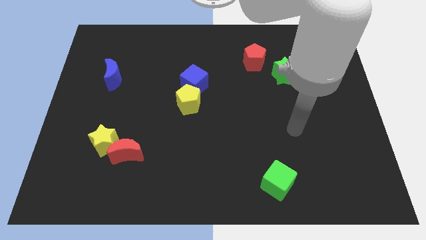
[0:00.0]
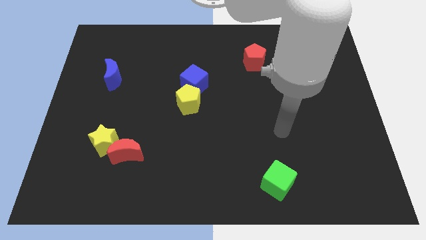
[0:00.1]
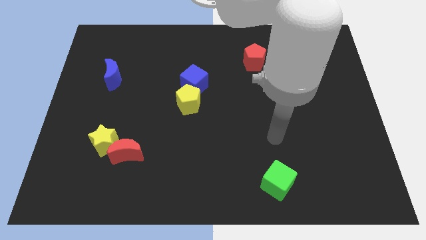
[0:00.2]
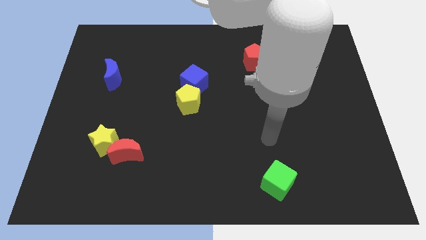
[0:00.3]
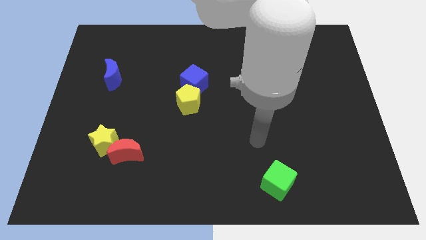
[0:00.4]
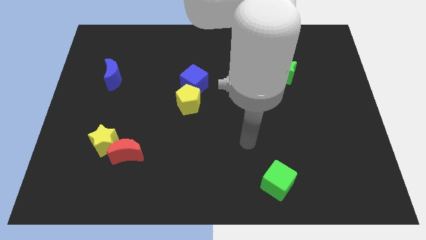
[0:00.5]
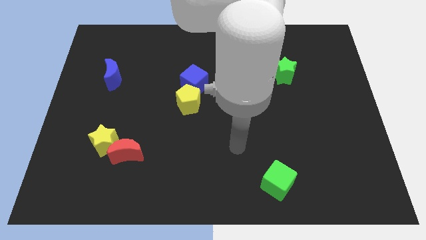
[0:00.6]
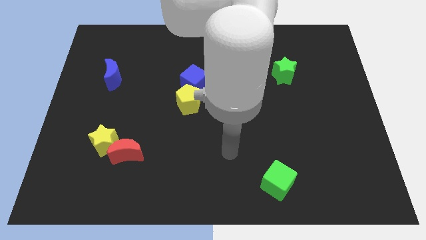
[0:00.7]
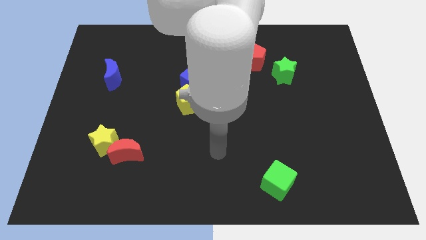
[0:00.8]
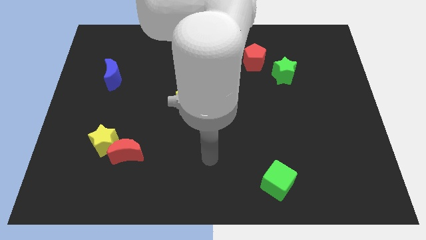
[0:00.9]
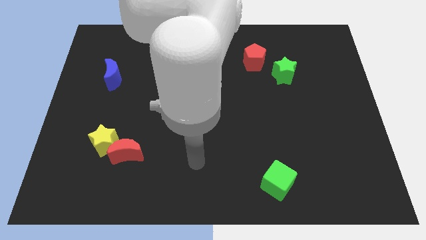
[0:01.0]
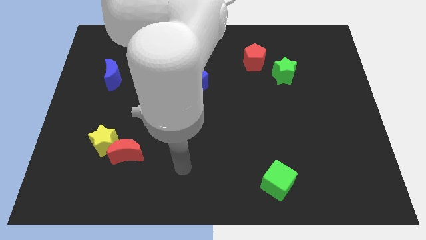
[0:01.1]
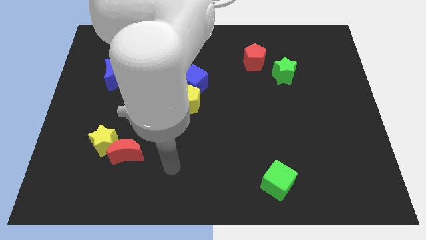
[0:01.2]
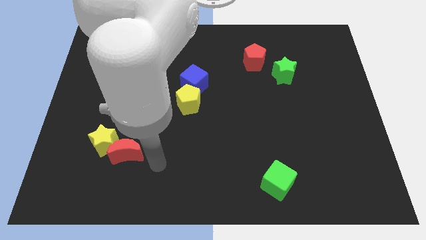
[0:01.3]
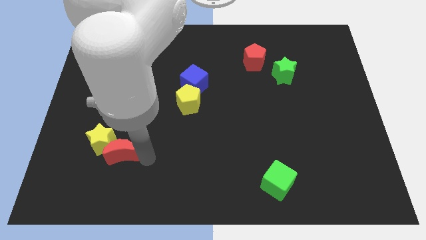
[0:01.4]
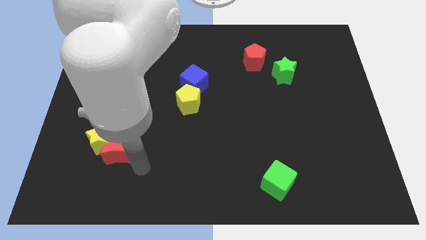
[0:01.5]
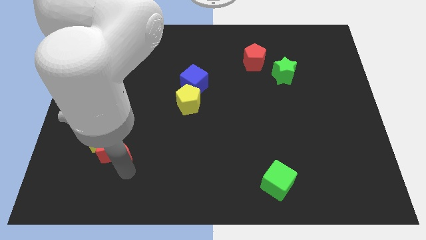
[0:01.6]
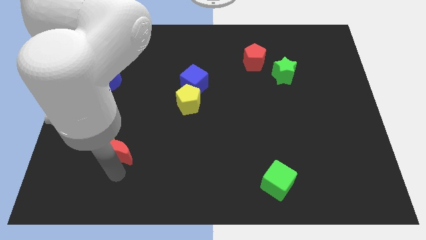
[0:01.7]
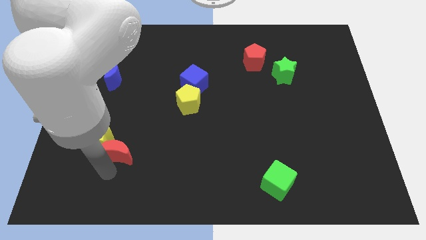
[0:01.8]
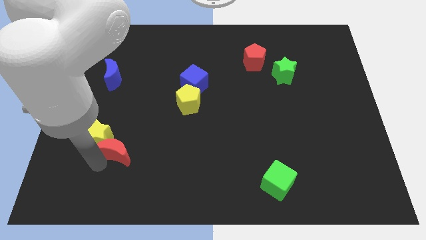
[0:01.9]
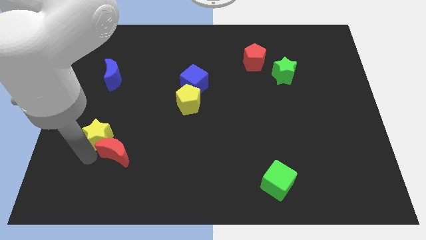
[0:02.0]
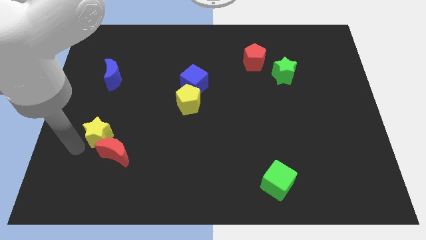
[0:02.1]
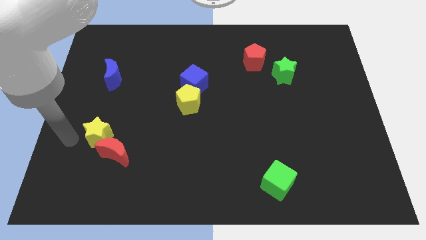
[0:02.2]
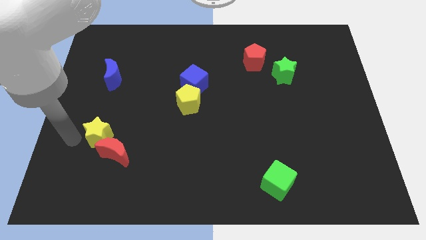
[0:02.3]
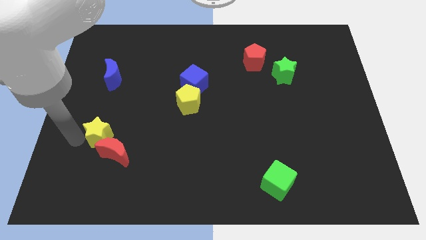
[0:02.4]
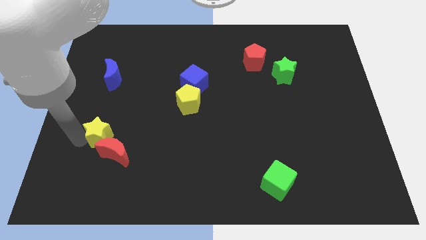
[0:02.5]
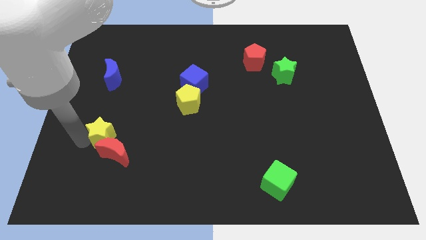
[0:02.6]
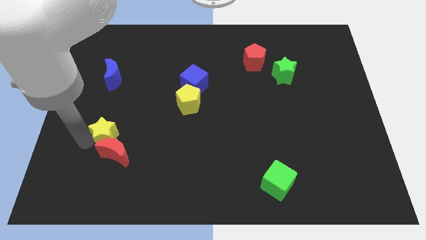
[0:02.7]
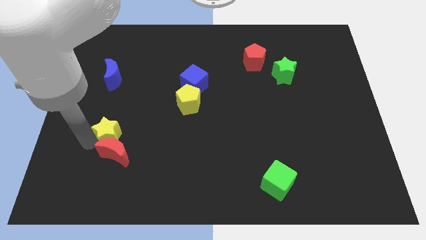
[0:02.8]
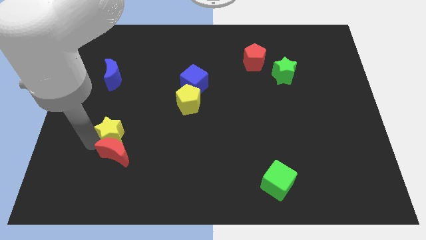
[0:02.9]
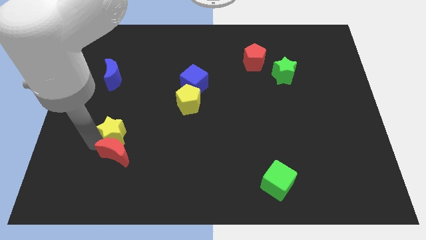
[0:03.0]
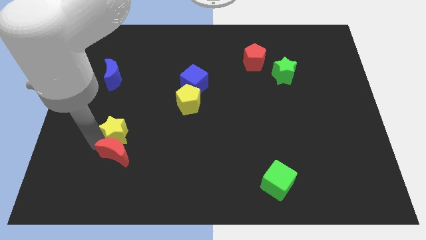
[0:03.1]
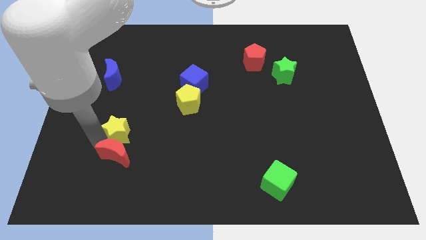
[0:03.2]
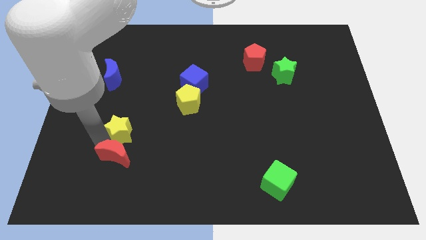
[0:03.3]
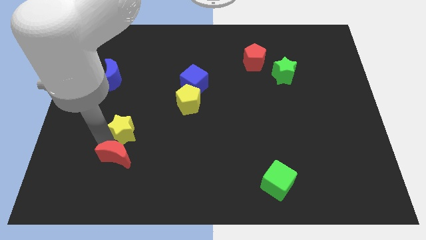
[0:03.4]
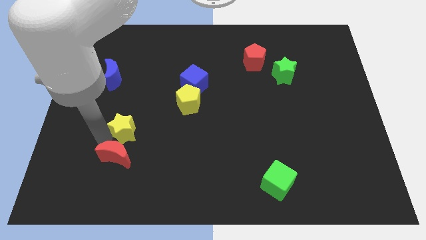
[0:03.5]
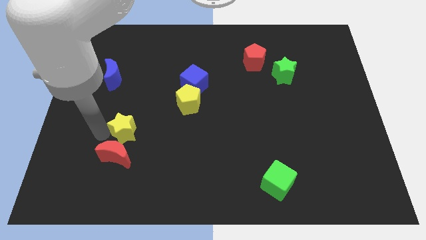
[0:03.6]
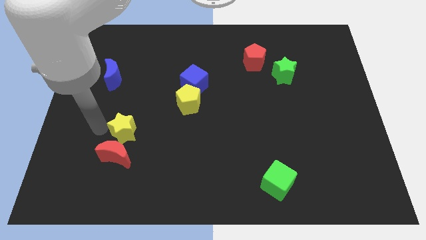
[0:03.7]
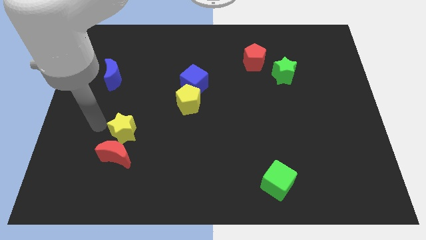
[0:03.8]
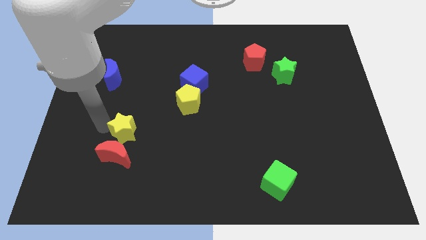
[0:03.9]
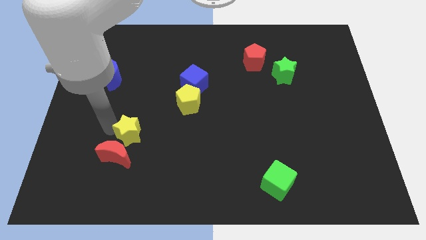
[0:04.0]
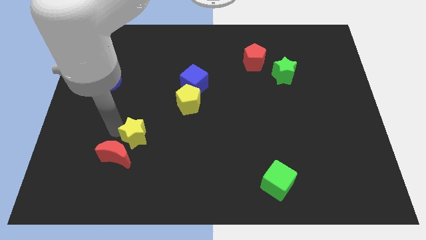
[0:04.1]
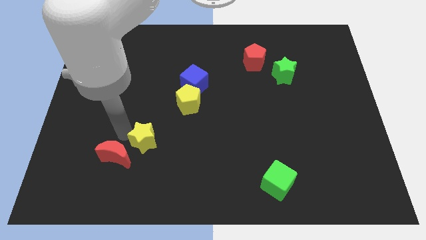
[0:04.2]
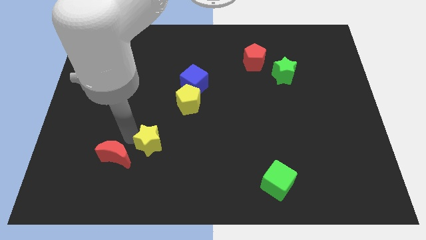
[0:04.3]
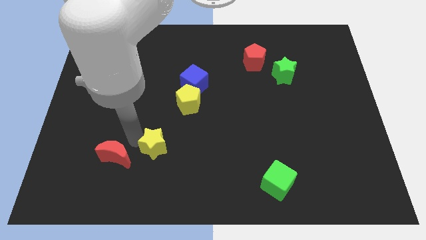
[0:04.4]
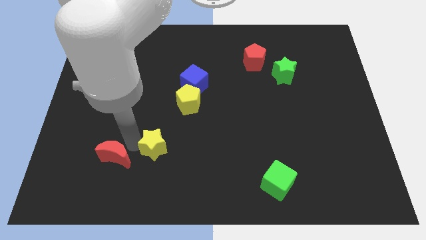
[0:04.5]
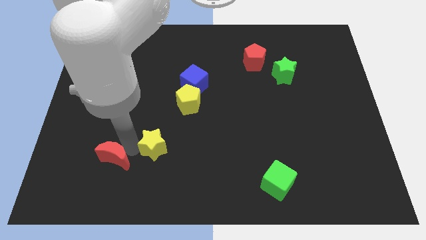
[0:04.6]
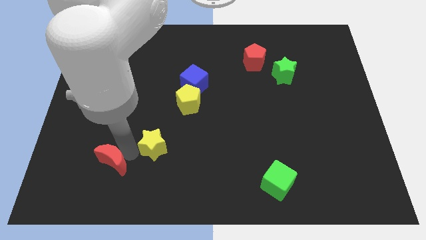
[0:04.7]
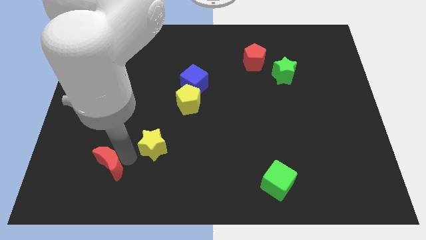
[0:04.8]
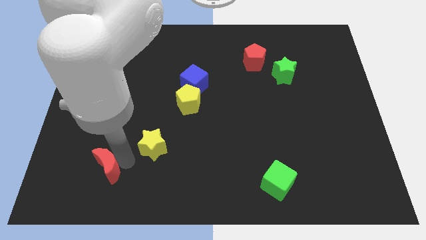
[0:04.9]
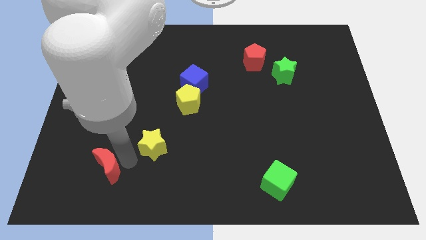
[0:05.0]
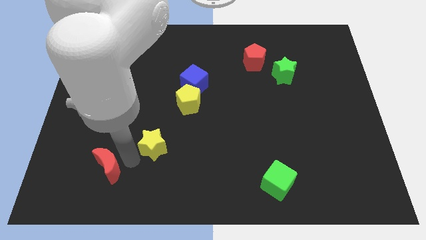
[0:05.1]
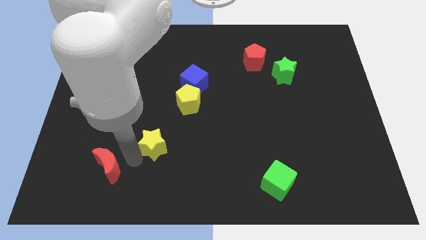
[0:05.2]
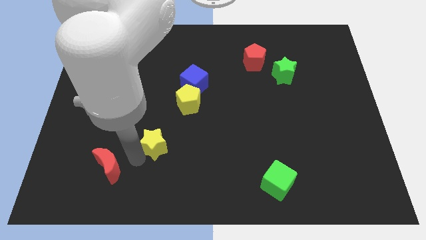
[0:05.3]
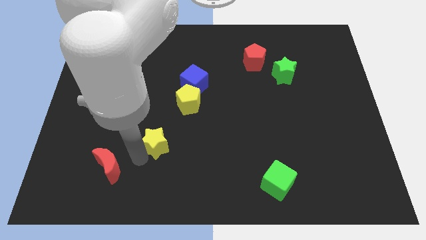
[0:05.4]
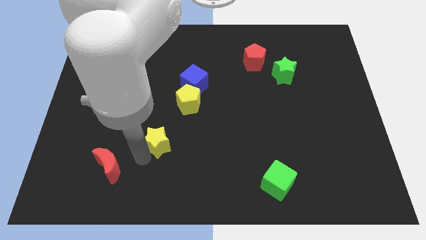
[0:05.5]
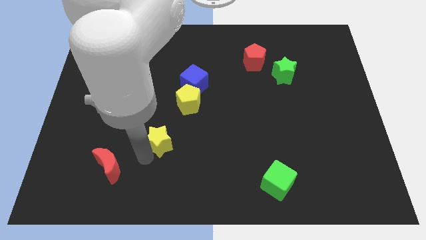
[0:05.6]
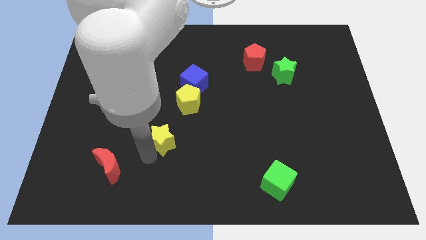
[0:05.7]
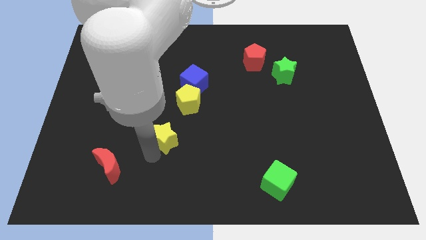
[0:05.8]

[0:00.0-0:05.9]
move the yellow star to the bottom of the yellow pentagon

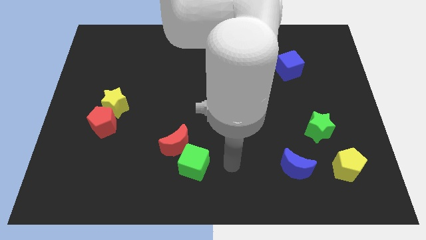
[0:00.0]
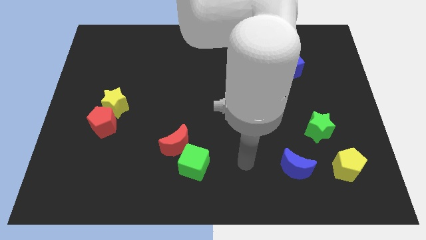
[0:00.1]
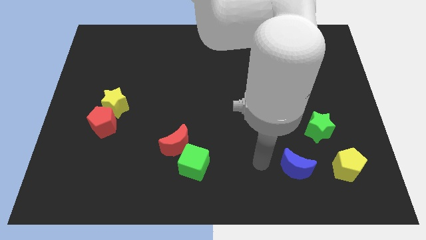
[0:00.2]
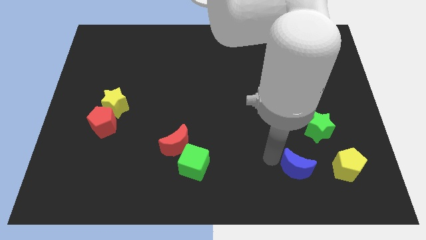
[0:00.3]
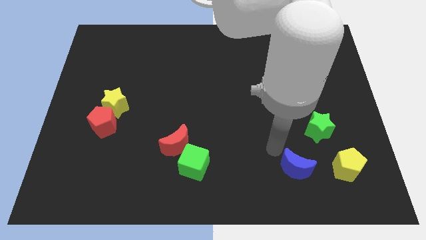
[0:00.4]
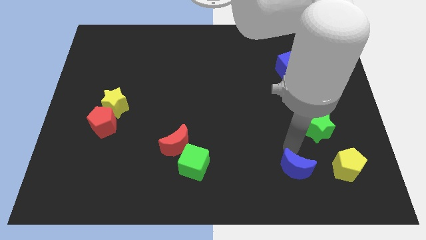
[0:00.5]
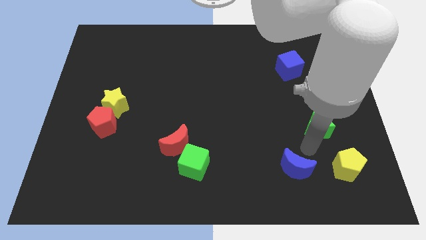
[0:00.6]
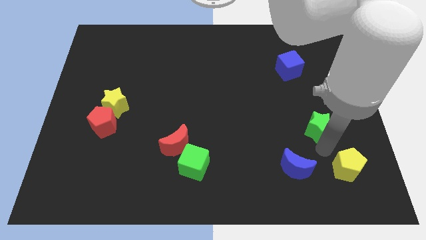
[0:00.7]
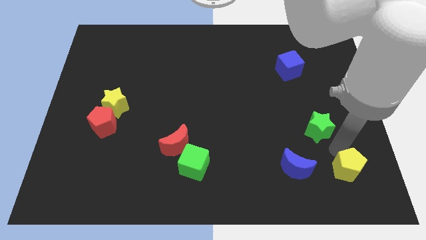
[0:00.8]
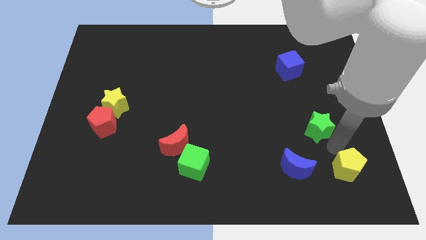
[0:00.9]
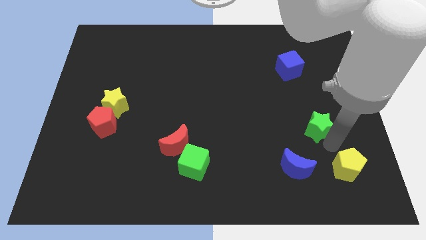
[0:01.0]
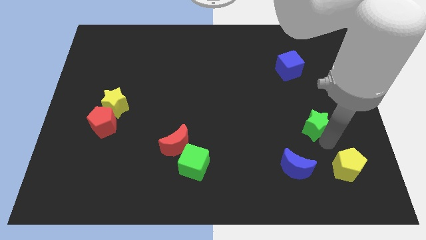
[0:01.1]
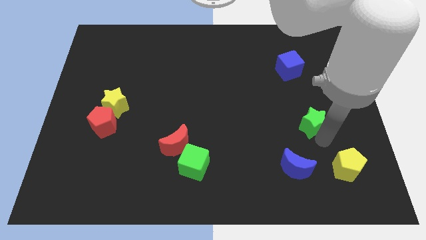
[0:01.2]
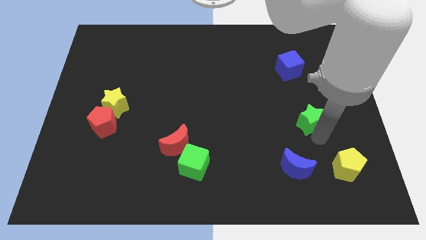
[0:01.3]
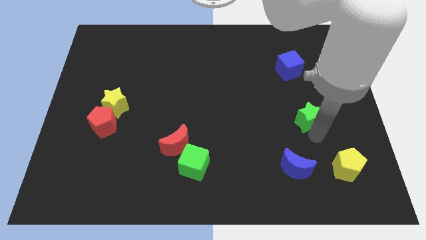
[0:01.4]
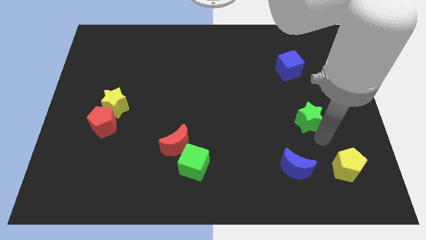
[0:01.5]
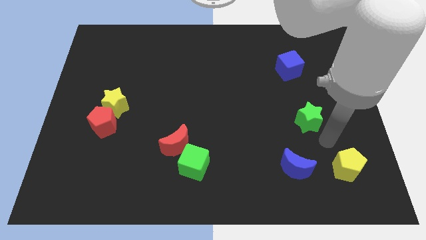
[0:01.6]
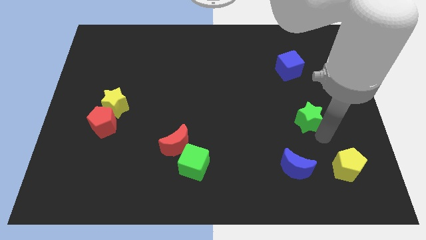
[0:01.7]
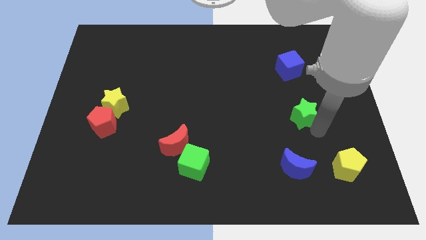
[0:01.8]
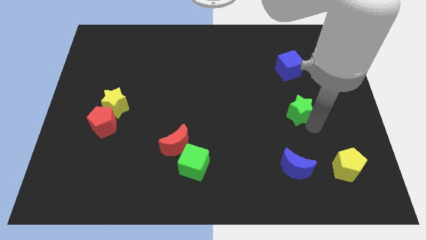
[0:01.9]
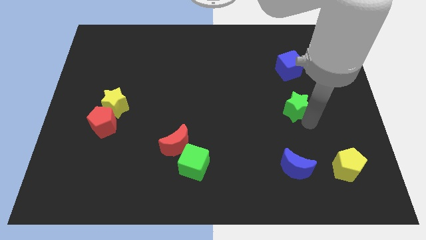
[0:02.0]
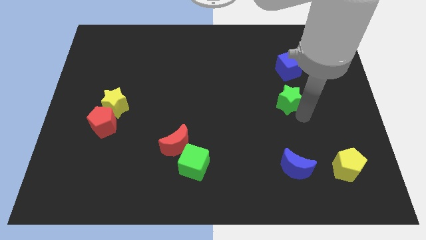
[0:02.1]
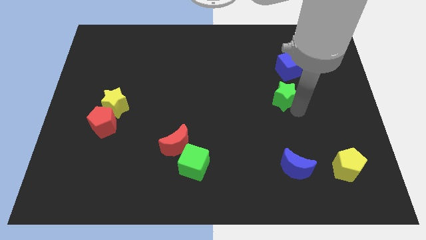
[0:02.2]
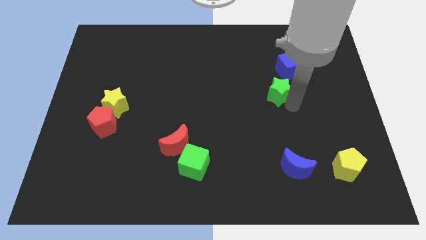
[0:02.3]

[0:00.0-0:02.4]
push the green star diagonally down and to the left of the blue cube
